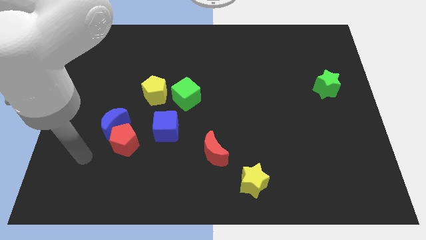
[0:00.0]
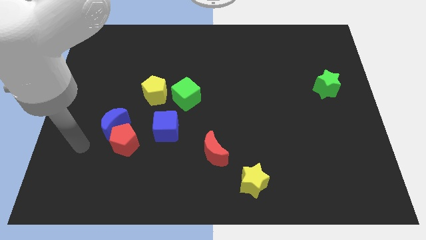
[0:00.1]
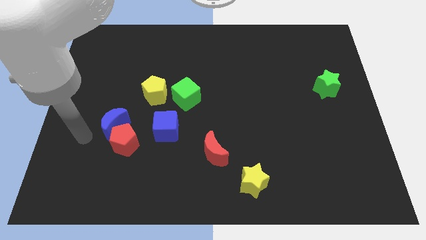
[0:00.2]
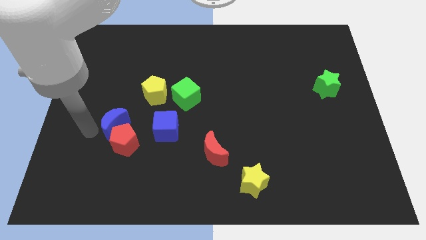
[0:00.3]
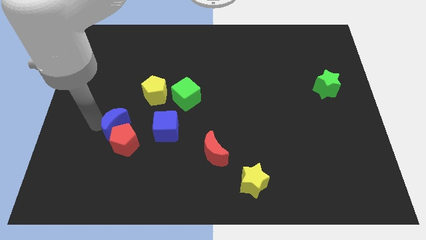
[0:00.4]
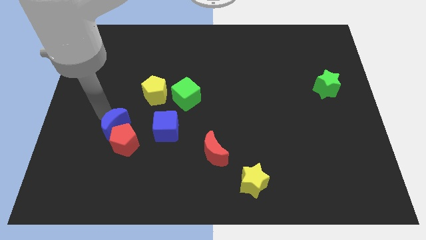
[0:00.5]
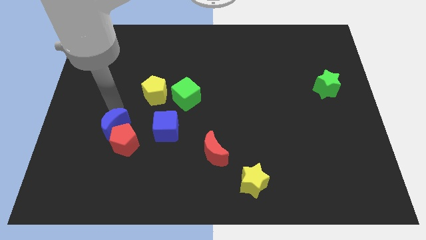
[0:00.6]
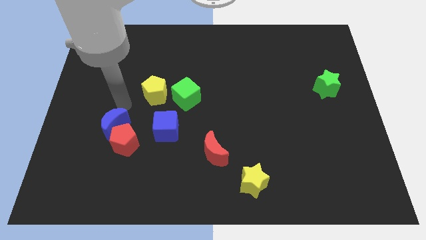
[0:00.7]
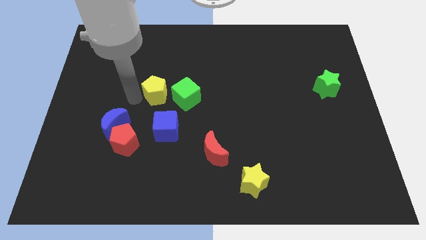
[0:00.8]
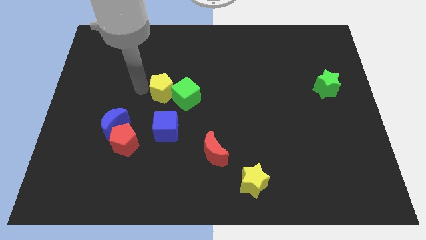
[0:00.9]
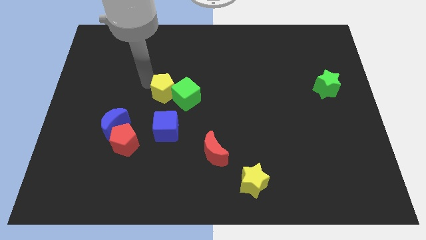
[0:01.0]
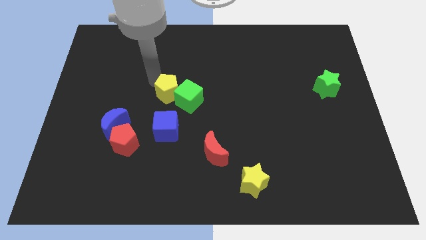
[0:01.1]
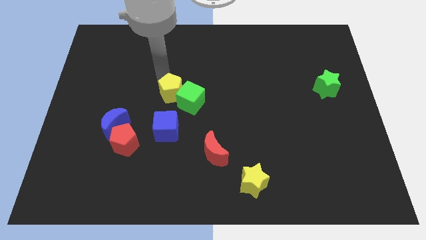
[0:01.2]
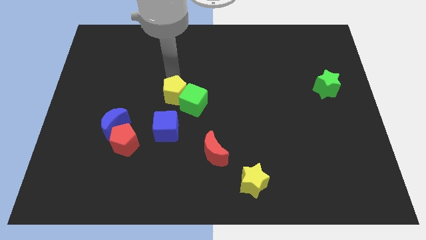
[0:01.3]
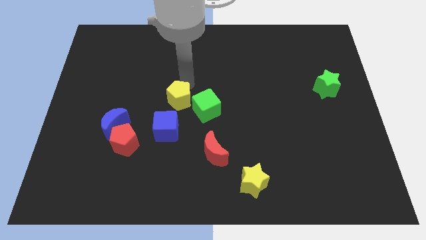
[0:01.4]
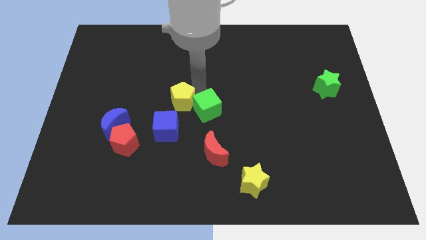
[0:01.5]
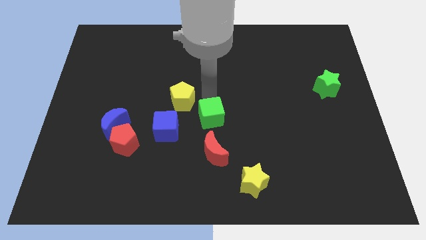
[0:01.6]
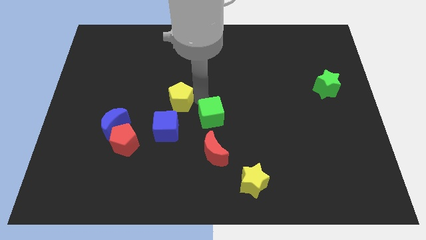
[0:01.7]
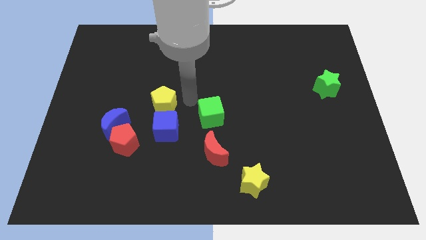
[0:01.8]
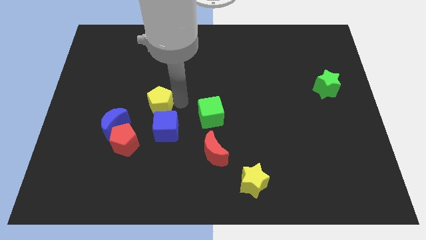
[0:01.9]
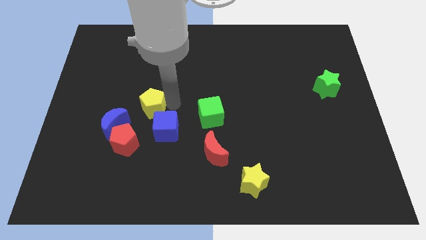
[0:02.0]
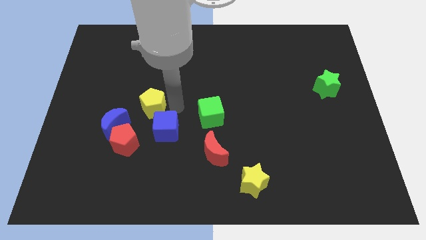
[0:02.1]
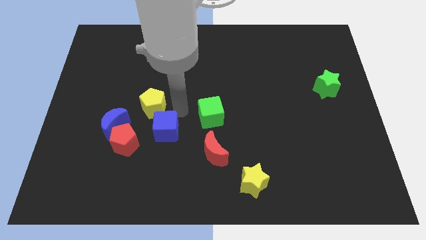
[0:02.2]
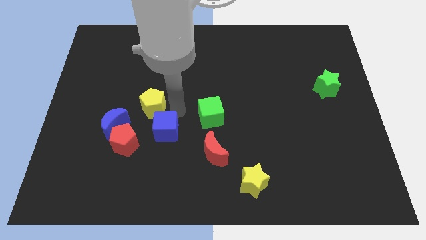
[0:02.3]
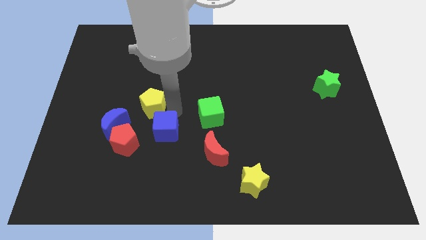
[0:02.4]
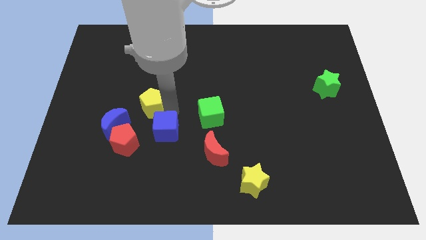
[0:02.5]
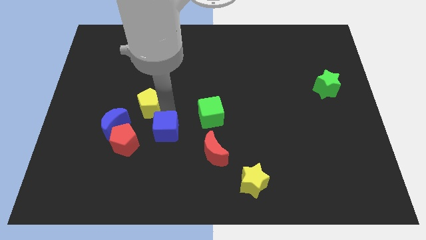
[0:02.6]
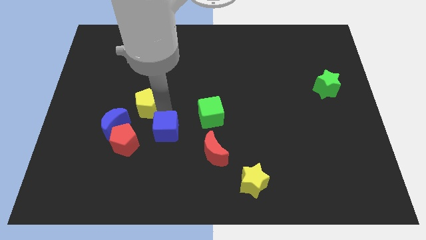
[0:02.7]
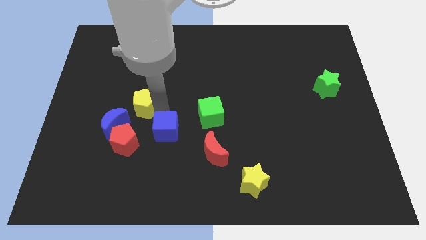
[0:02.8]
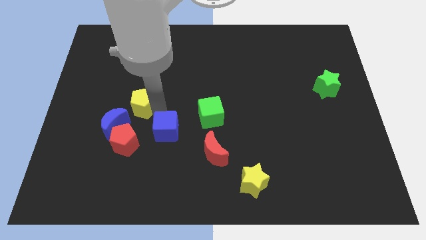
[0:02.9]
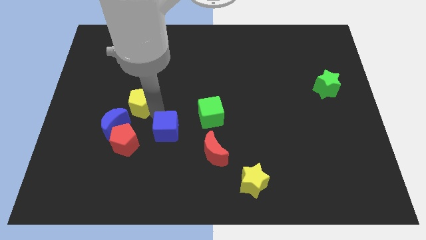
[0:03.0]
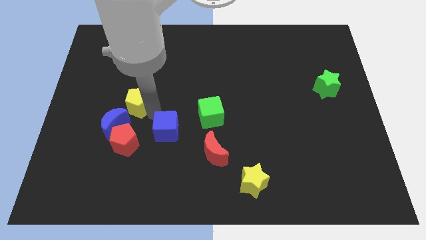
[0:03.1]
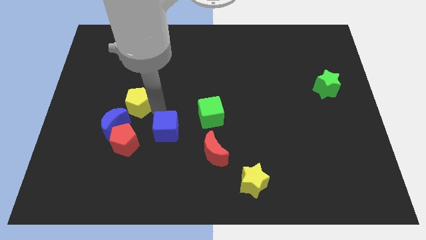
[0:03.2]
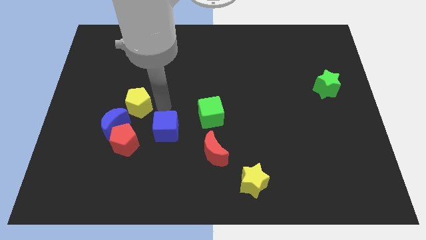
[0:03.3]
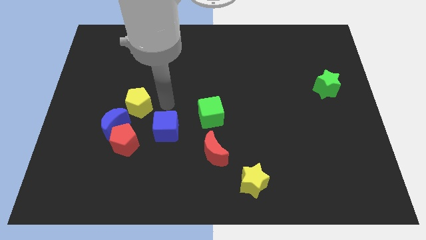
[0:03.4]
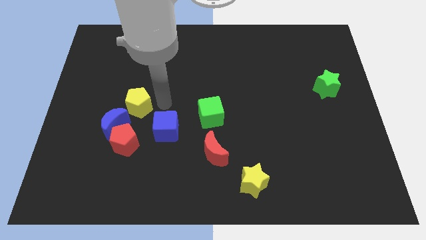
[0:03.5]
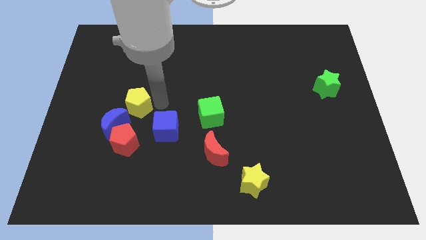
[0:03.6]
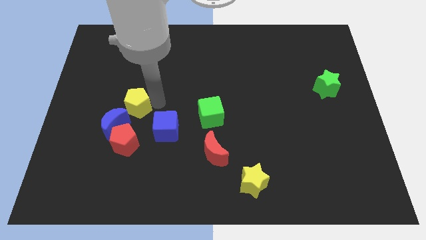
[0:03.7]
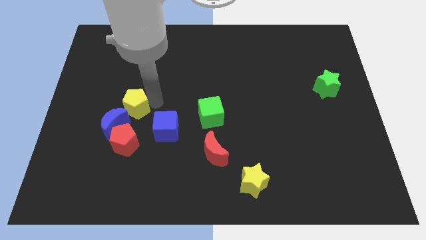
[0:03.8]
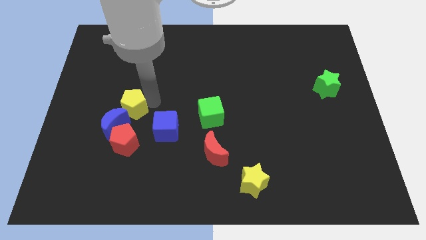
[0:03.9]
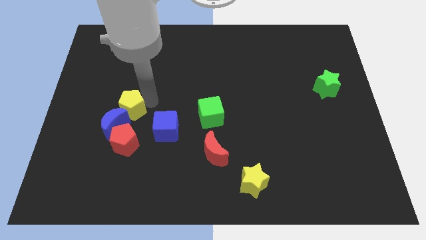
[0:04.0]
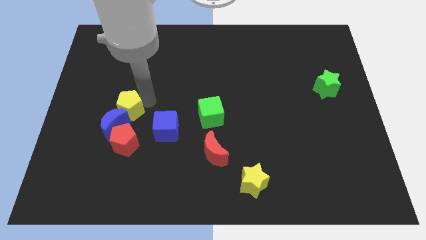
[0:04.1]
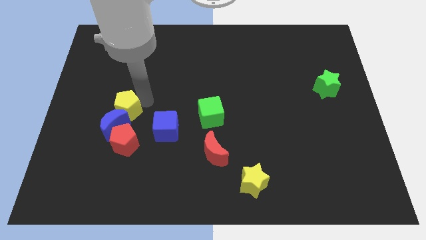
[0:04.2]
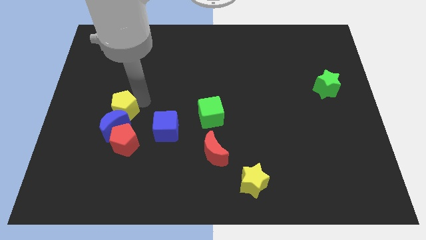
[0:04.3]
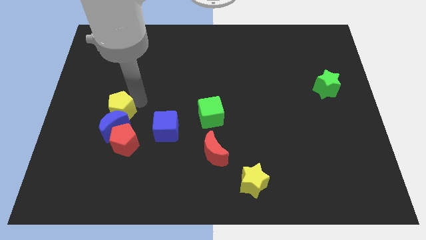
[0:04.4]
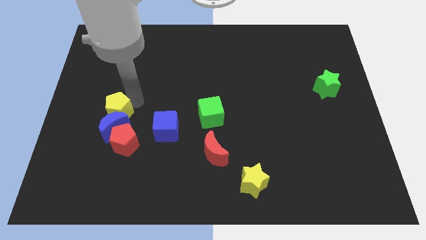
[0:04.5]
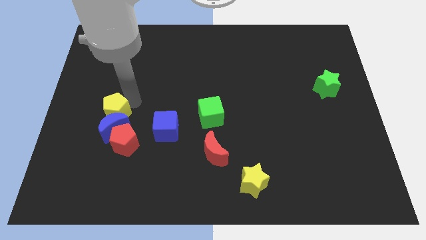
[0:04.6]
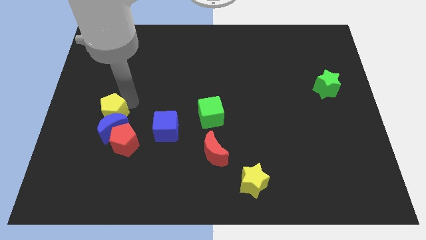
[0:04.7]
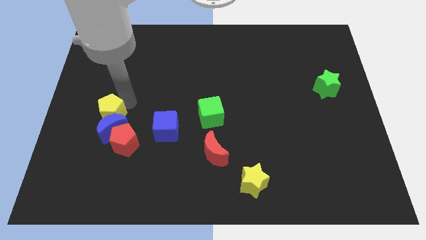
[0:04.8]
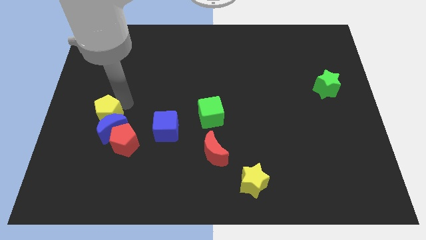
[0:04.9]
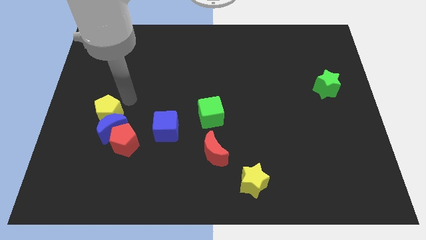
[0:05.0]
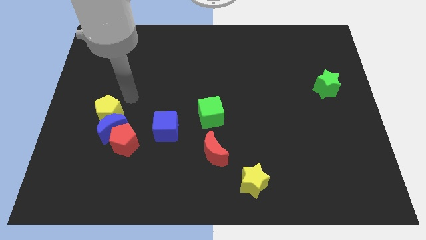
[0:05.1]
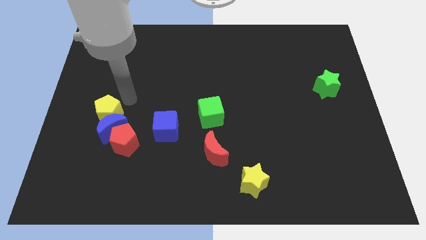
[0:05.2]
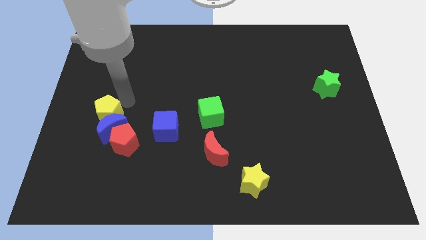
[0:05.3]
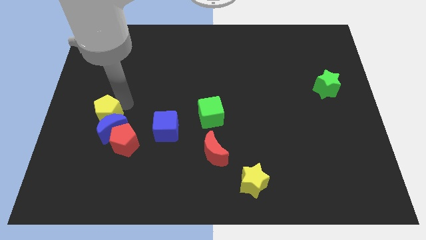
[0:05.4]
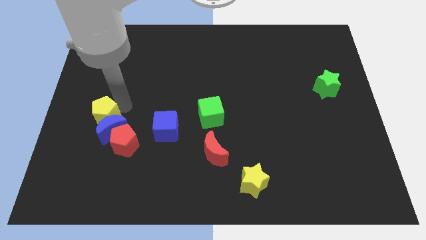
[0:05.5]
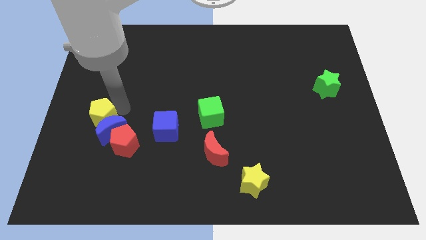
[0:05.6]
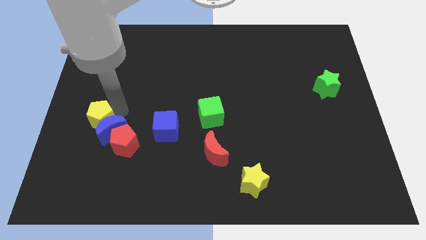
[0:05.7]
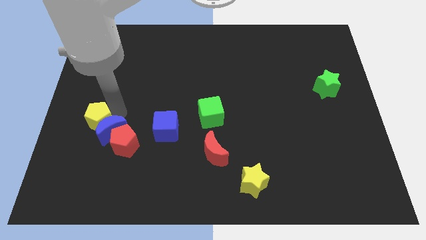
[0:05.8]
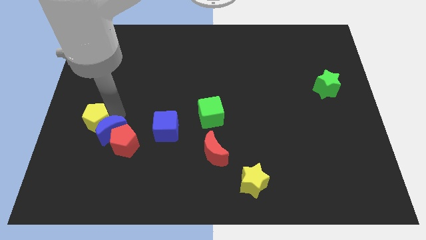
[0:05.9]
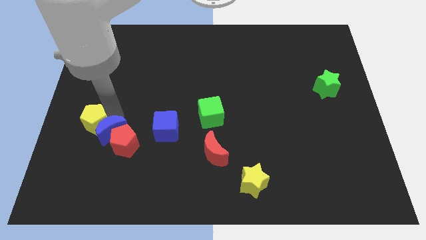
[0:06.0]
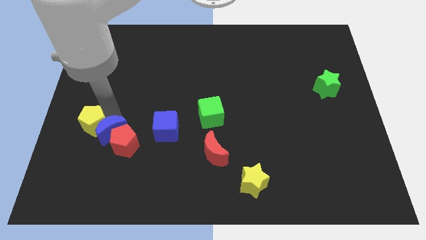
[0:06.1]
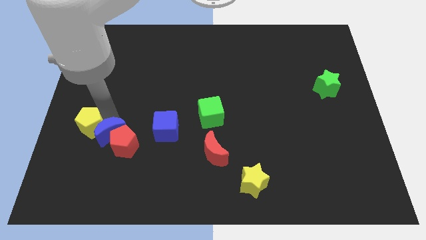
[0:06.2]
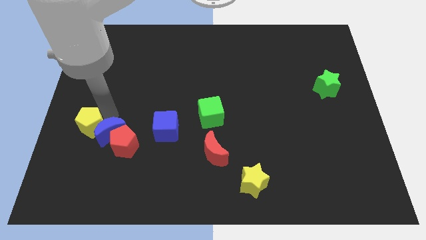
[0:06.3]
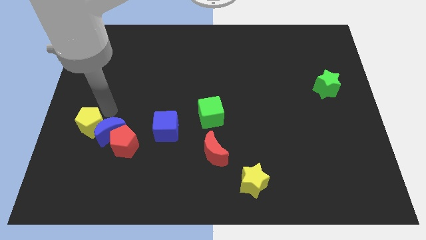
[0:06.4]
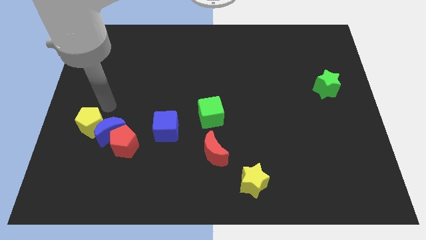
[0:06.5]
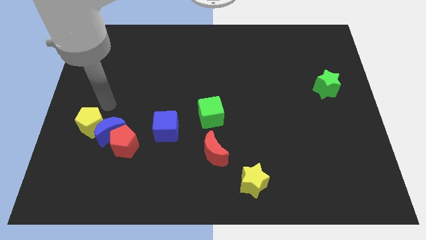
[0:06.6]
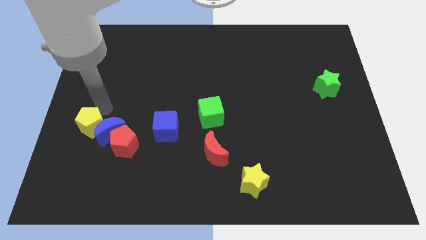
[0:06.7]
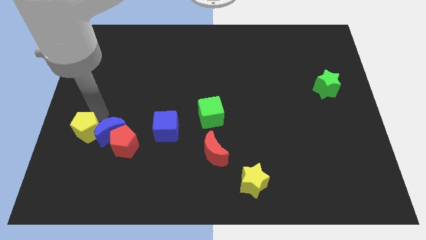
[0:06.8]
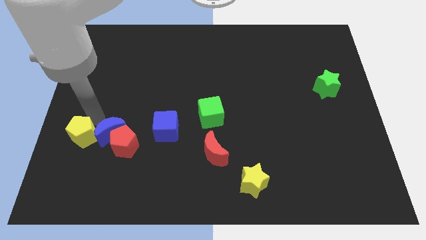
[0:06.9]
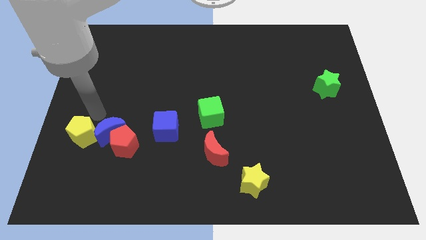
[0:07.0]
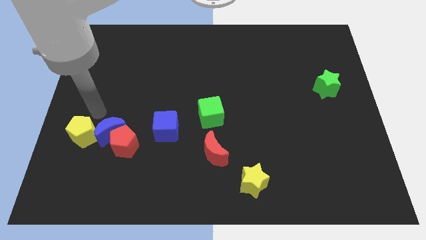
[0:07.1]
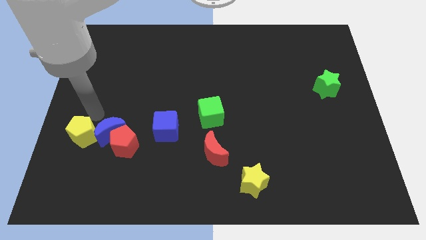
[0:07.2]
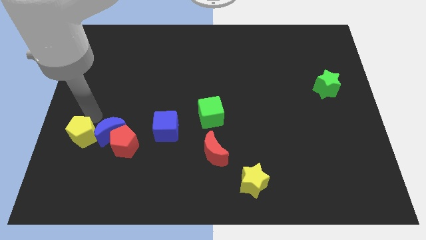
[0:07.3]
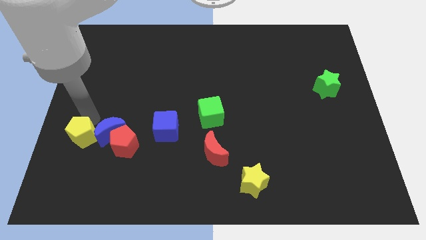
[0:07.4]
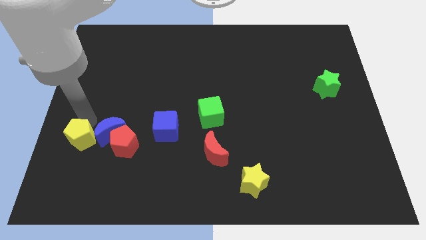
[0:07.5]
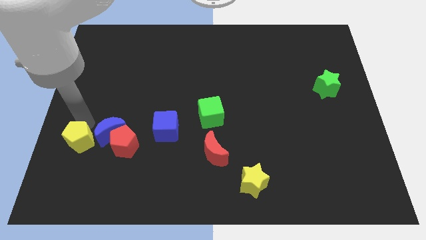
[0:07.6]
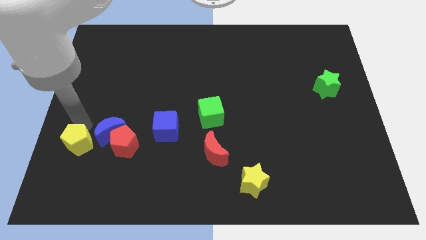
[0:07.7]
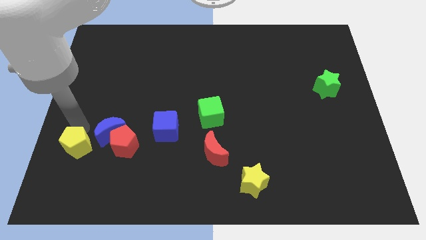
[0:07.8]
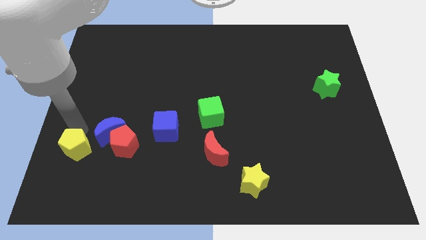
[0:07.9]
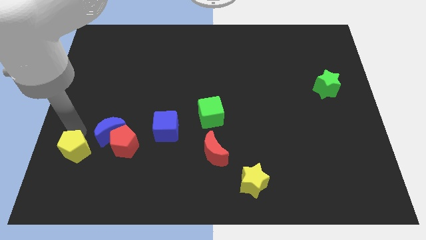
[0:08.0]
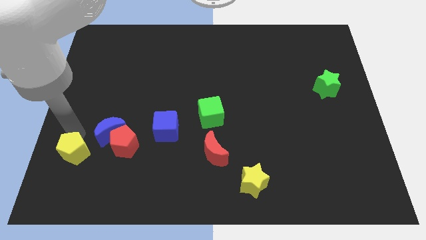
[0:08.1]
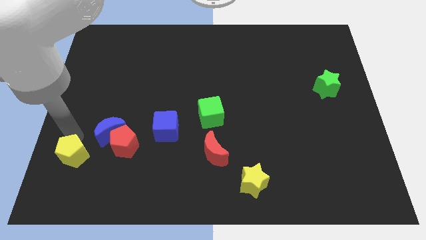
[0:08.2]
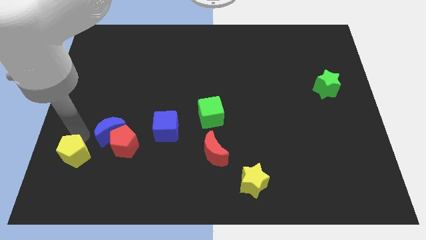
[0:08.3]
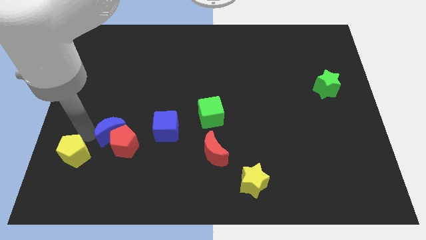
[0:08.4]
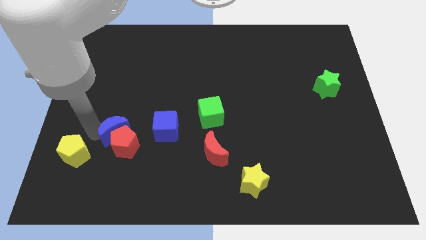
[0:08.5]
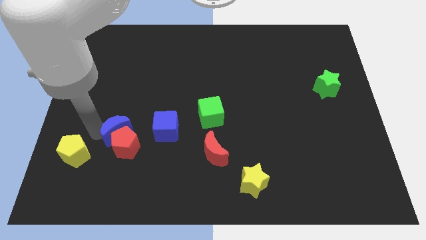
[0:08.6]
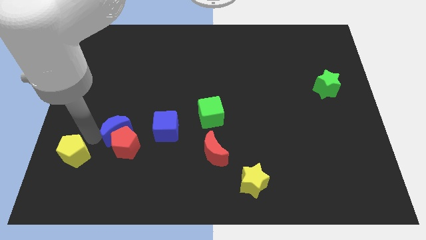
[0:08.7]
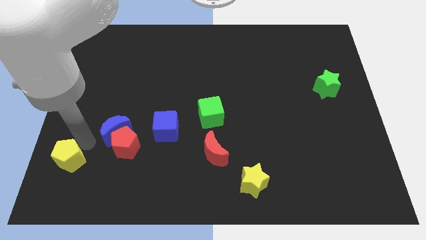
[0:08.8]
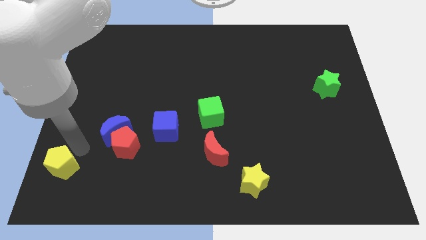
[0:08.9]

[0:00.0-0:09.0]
slide the yellow pentagon to the bottom left corner
